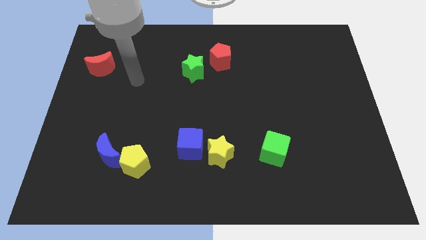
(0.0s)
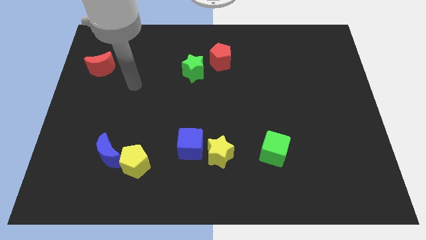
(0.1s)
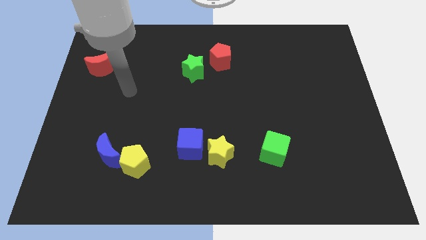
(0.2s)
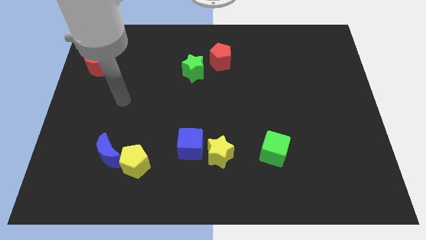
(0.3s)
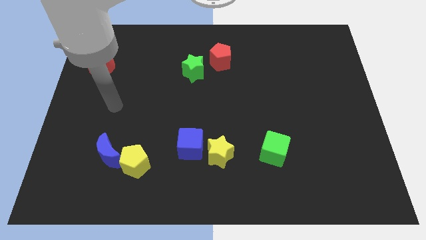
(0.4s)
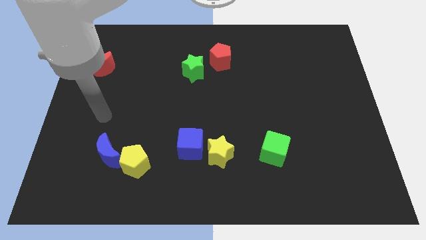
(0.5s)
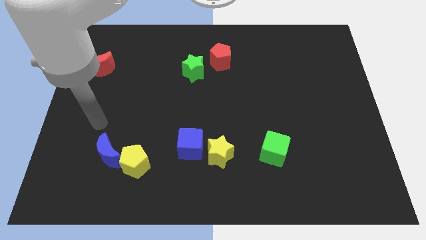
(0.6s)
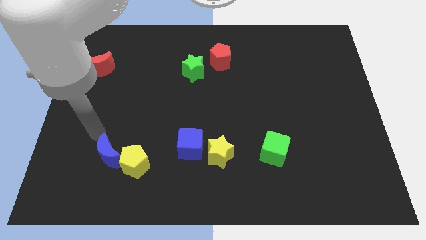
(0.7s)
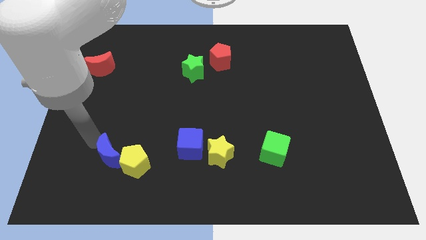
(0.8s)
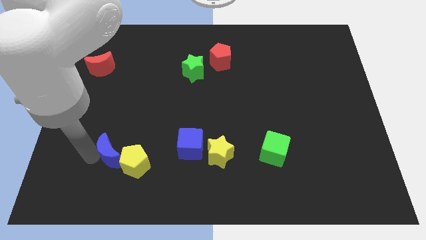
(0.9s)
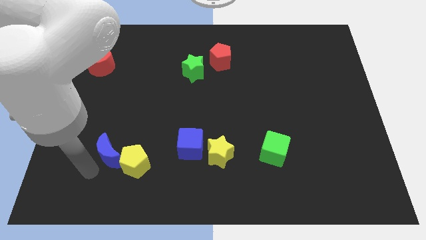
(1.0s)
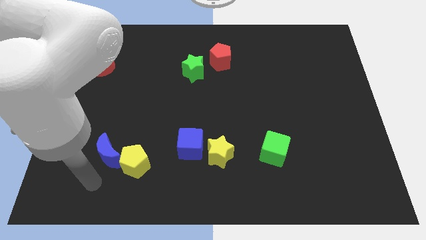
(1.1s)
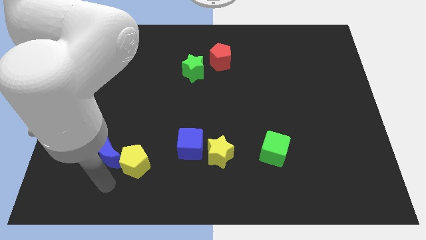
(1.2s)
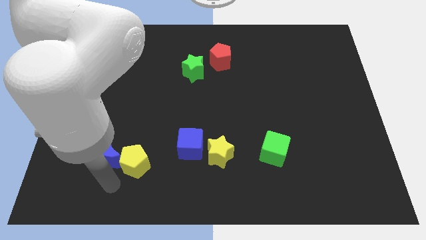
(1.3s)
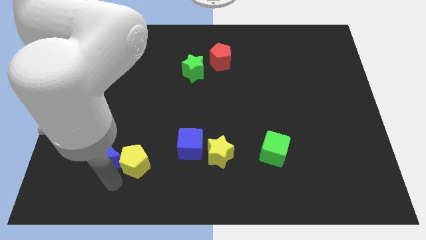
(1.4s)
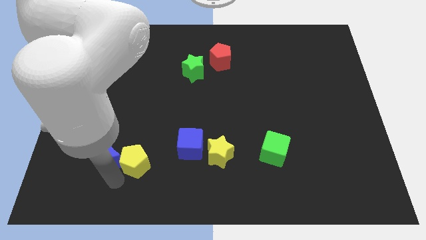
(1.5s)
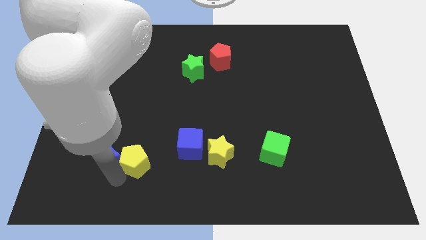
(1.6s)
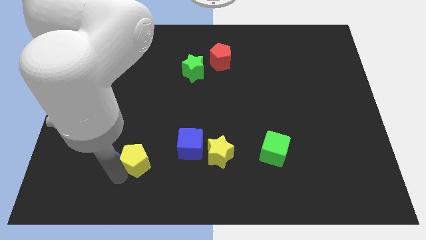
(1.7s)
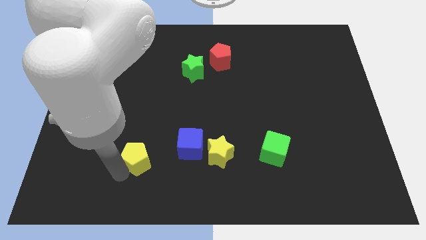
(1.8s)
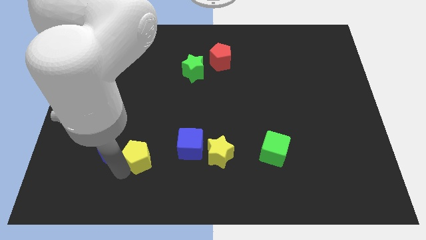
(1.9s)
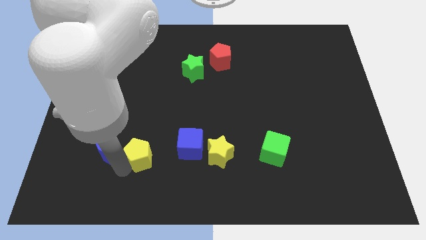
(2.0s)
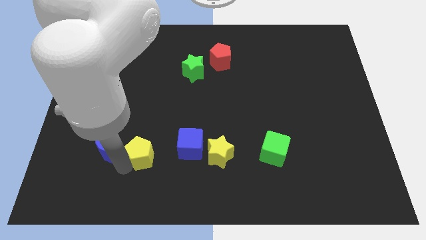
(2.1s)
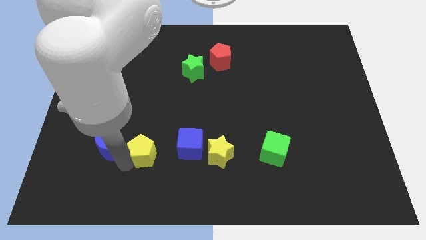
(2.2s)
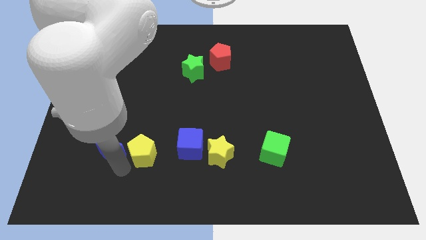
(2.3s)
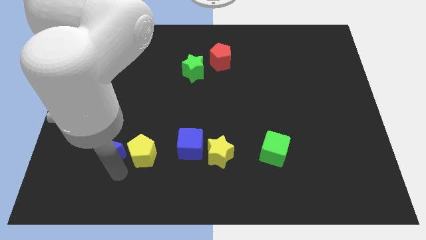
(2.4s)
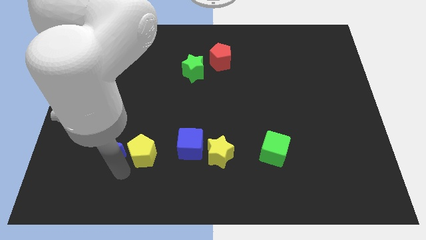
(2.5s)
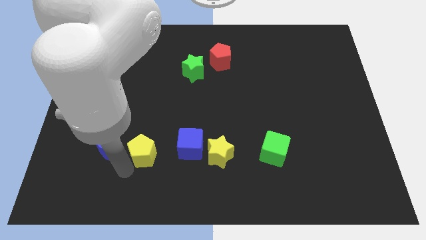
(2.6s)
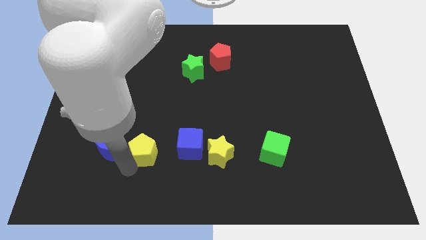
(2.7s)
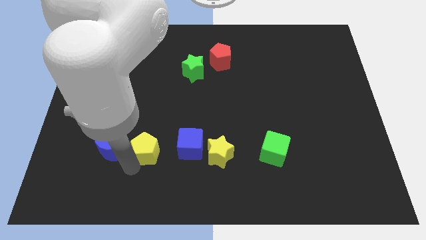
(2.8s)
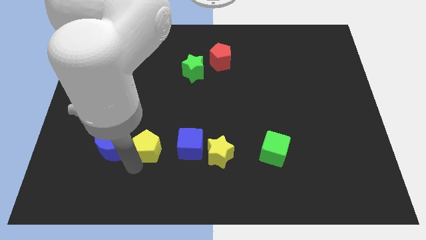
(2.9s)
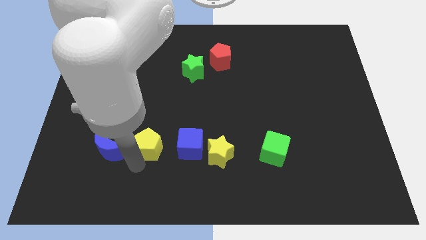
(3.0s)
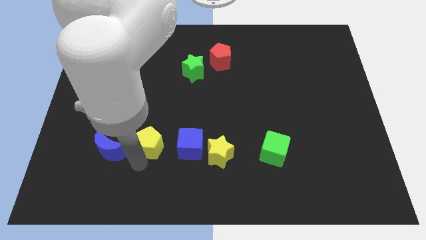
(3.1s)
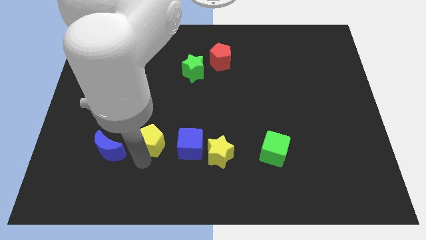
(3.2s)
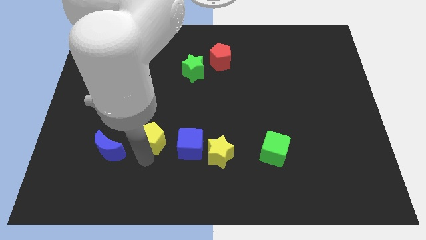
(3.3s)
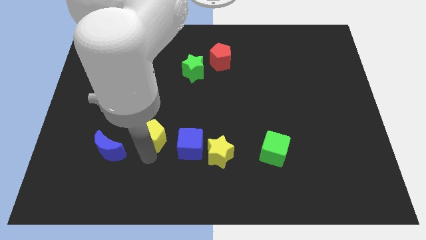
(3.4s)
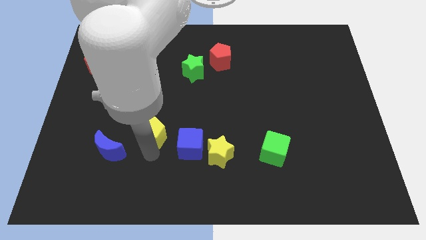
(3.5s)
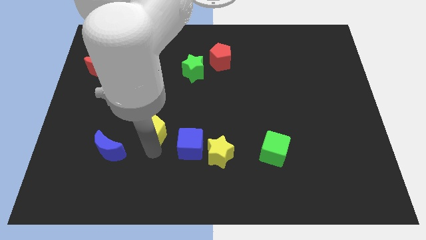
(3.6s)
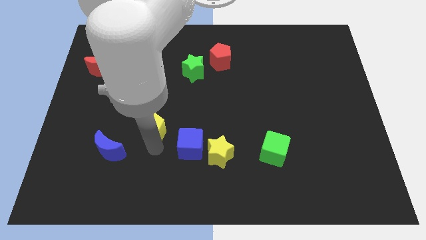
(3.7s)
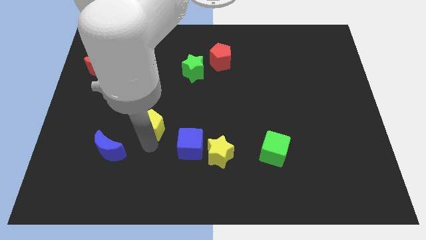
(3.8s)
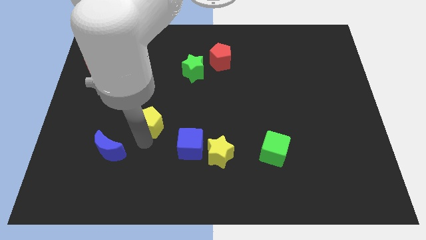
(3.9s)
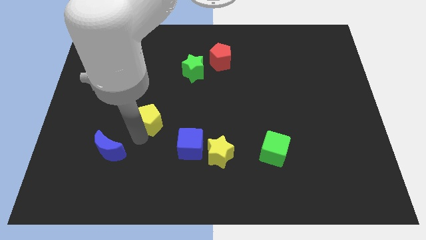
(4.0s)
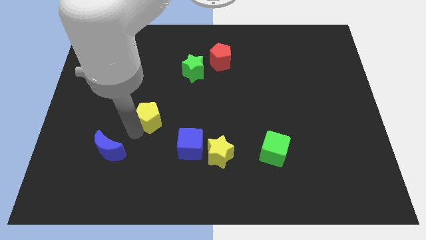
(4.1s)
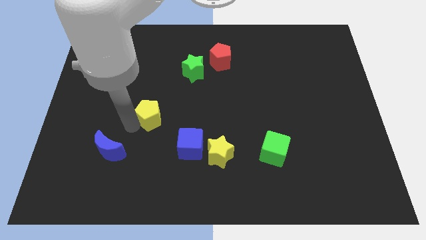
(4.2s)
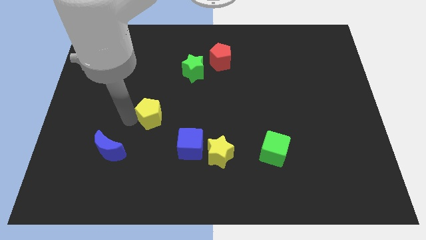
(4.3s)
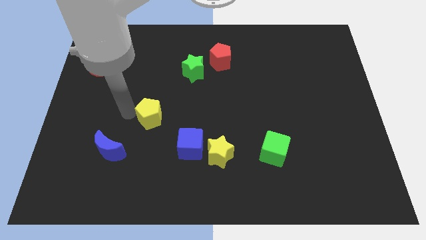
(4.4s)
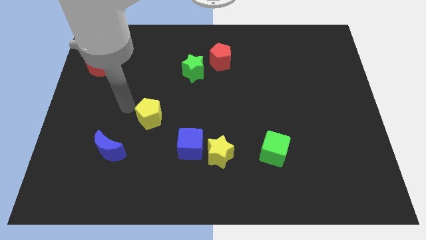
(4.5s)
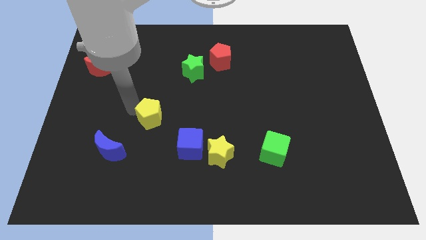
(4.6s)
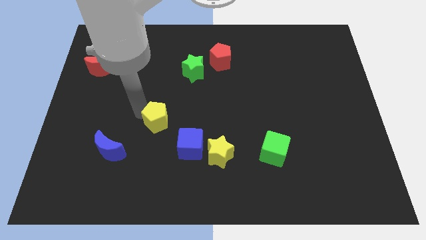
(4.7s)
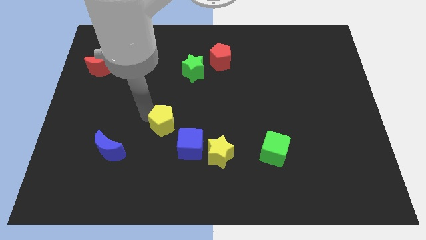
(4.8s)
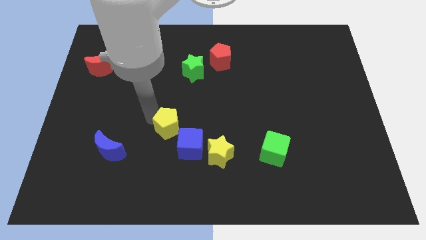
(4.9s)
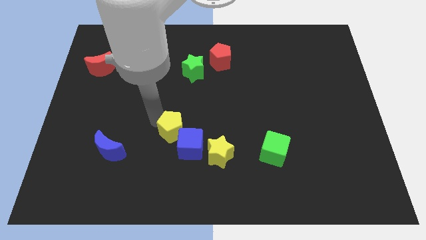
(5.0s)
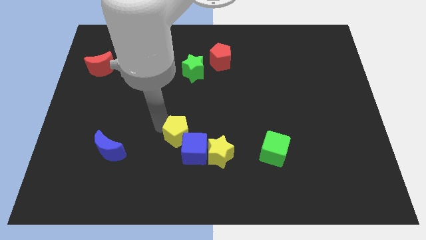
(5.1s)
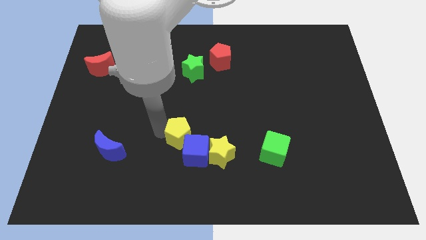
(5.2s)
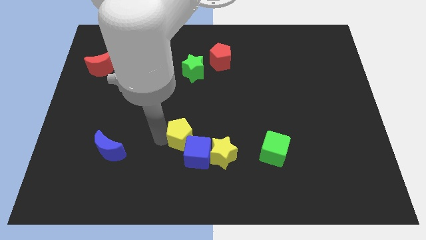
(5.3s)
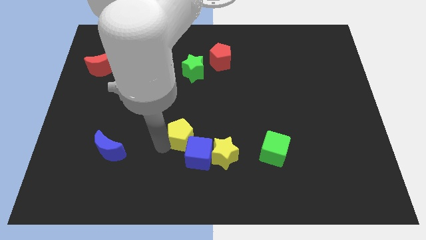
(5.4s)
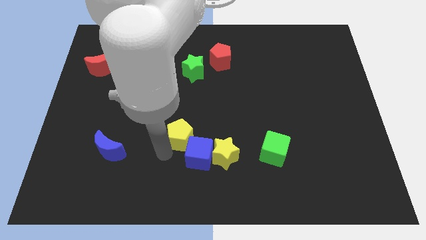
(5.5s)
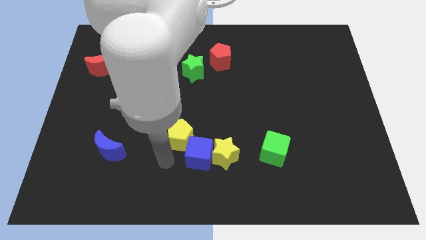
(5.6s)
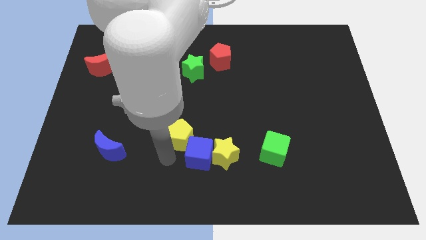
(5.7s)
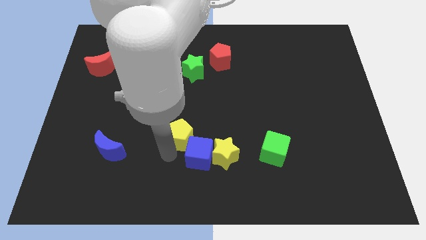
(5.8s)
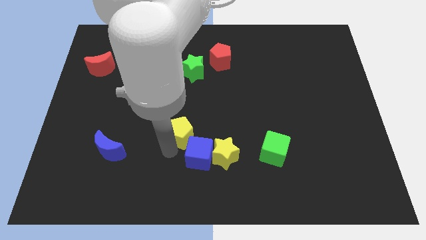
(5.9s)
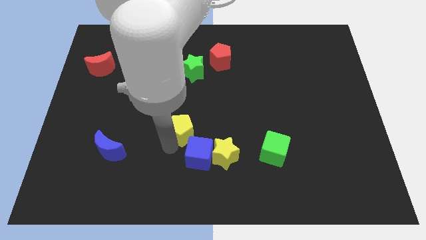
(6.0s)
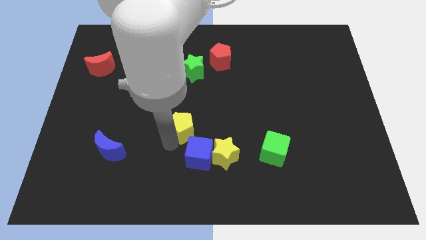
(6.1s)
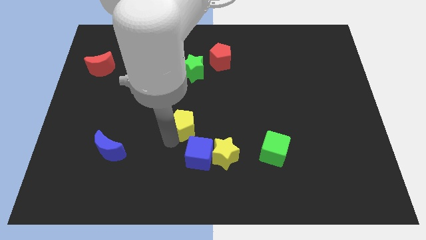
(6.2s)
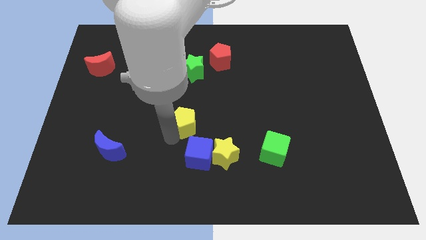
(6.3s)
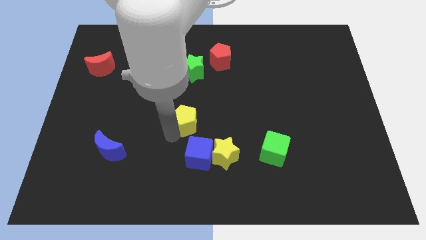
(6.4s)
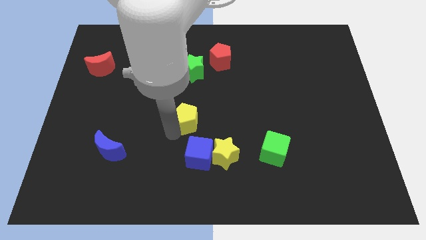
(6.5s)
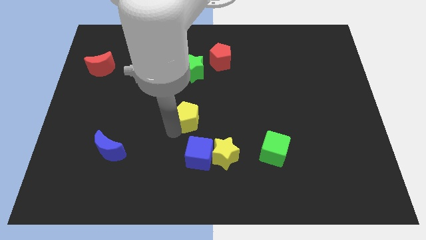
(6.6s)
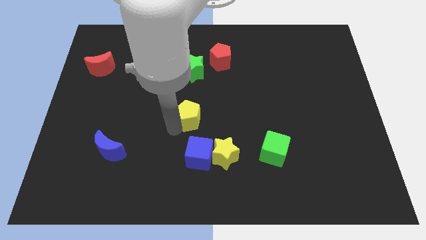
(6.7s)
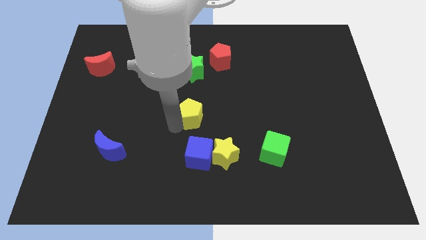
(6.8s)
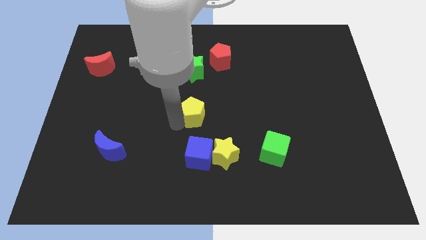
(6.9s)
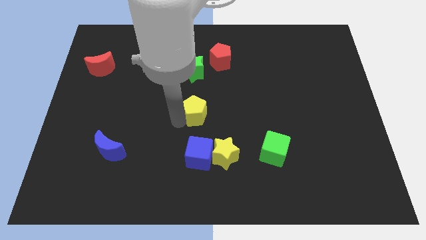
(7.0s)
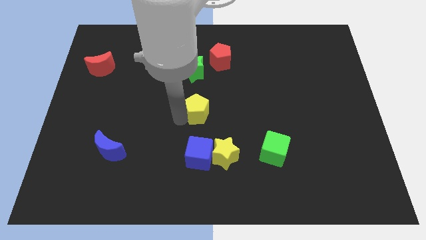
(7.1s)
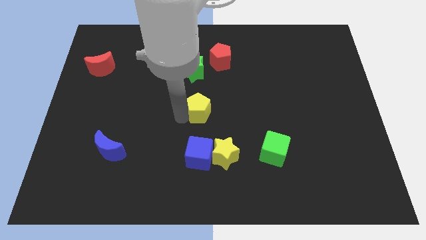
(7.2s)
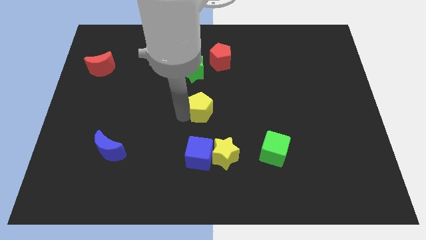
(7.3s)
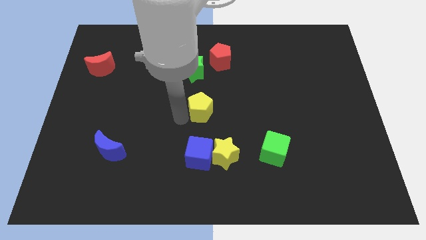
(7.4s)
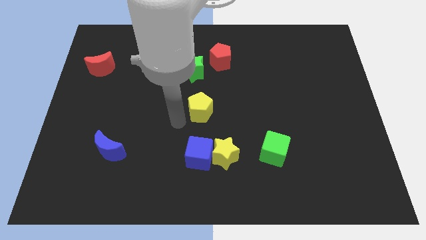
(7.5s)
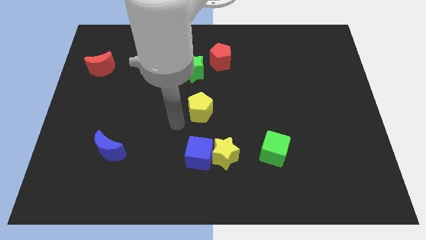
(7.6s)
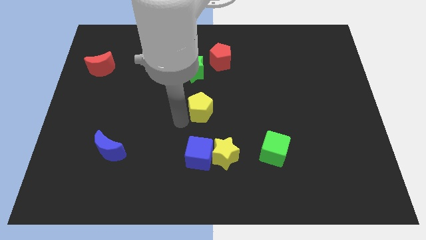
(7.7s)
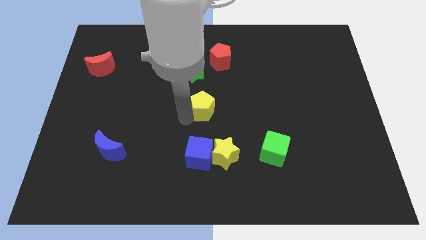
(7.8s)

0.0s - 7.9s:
slide the yellow pentagon upwards and to the right
